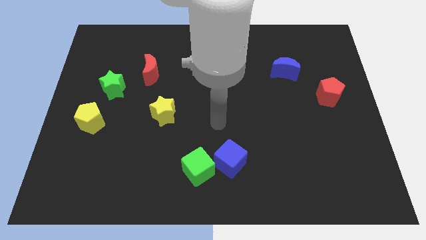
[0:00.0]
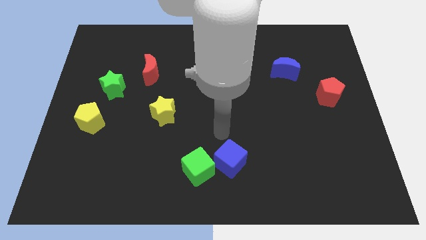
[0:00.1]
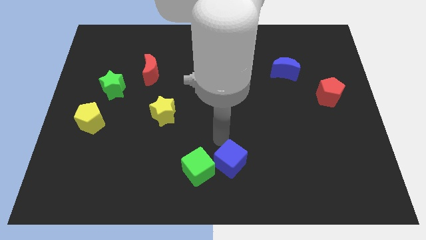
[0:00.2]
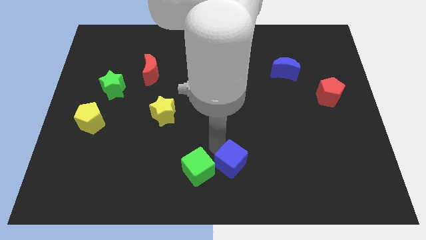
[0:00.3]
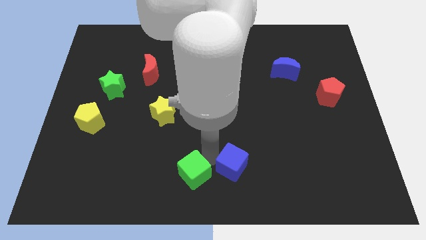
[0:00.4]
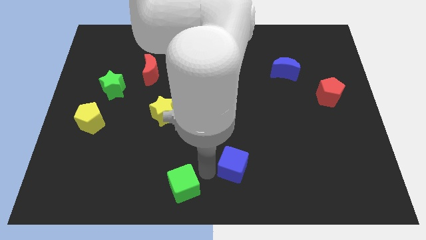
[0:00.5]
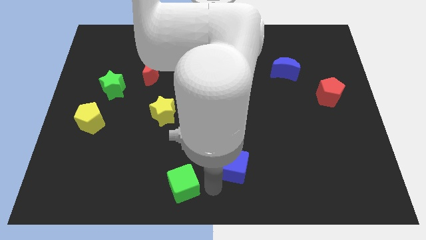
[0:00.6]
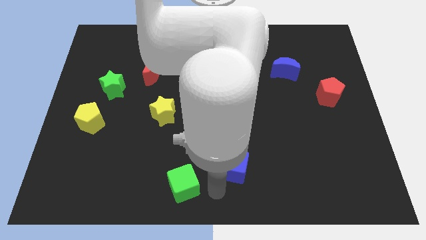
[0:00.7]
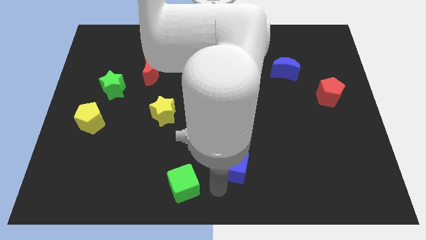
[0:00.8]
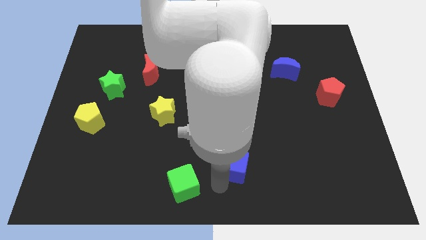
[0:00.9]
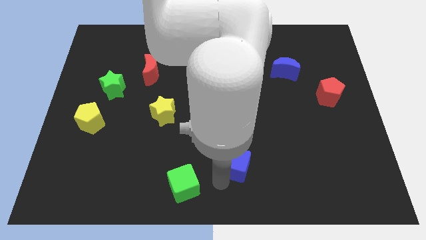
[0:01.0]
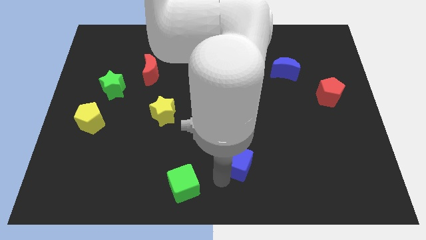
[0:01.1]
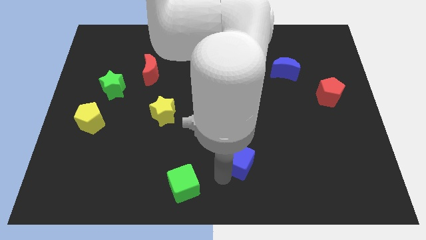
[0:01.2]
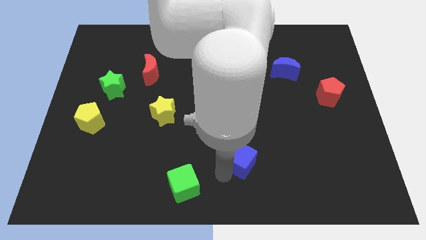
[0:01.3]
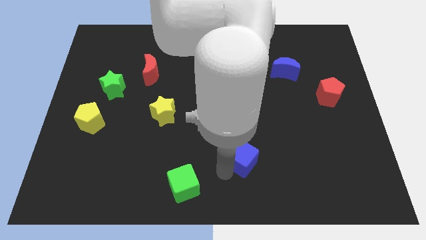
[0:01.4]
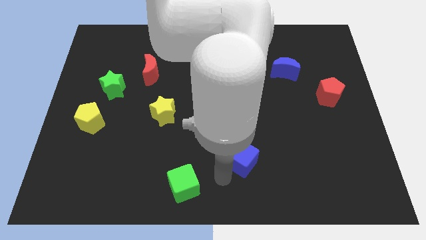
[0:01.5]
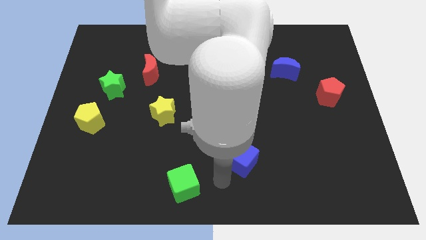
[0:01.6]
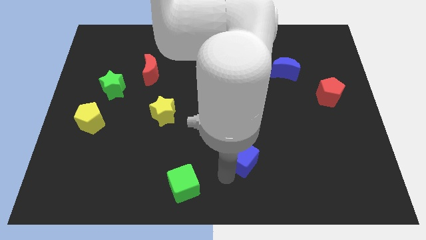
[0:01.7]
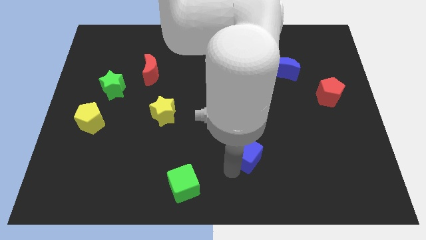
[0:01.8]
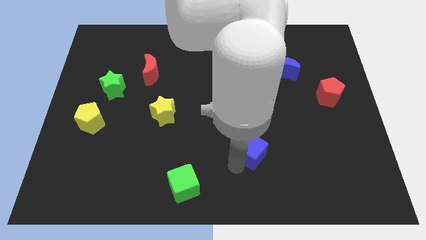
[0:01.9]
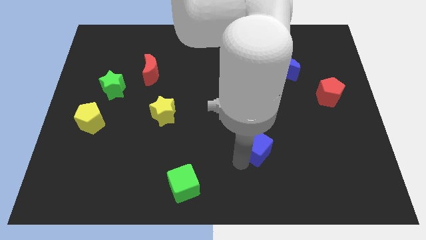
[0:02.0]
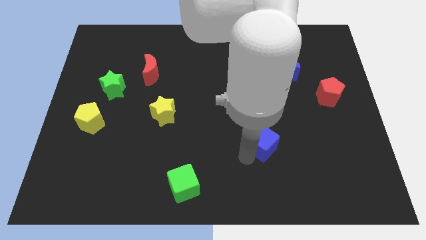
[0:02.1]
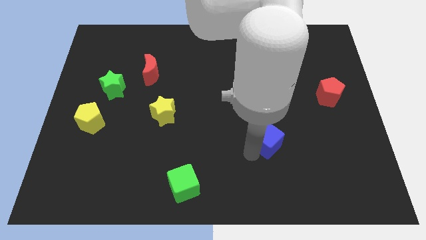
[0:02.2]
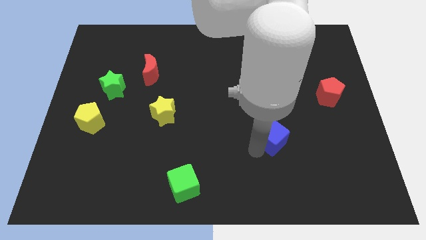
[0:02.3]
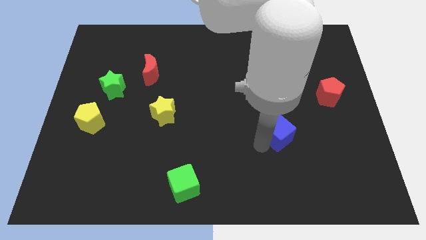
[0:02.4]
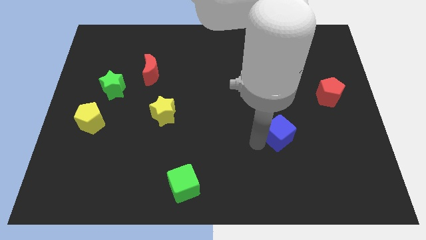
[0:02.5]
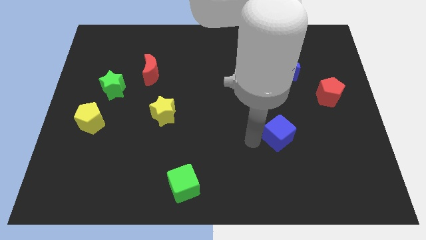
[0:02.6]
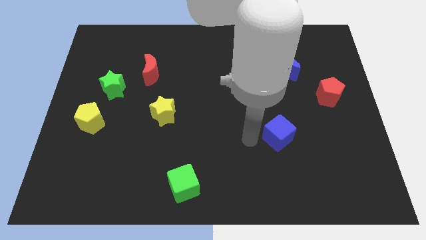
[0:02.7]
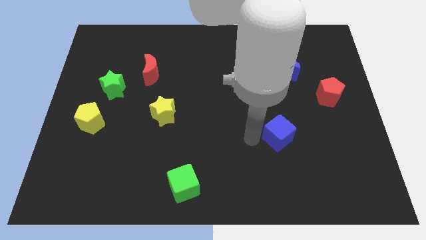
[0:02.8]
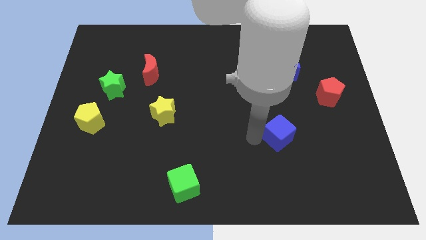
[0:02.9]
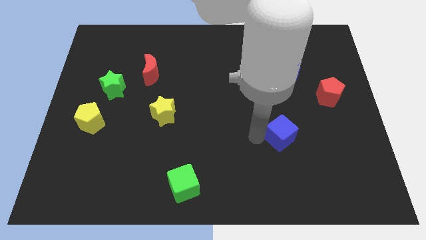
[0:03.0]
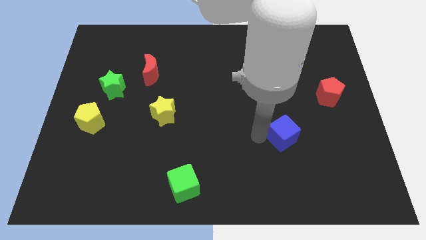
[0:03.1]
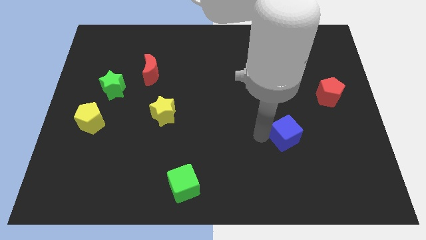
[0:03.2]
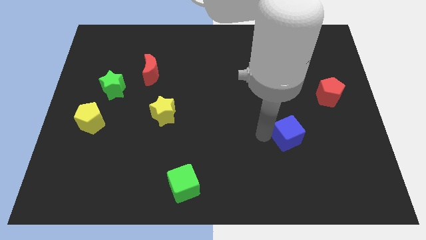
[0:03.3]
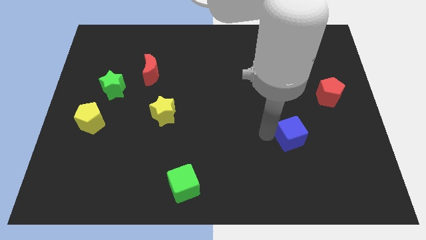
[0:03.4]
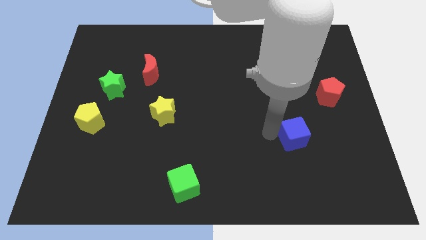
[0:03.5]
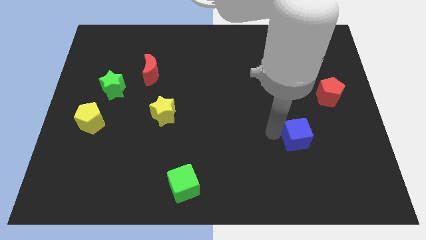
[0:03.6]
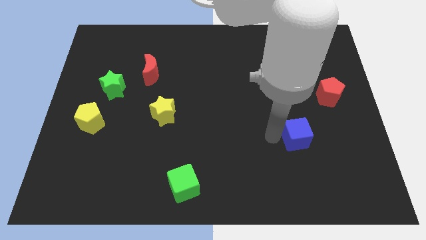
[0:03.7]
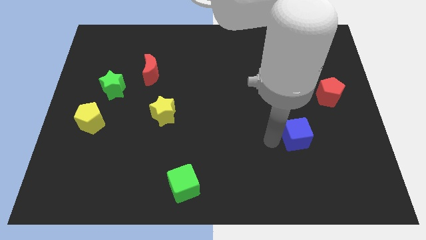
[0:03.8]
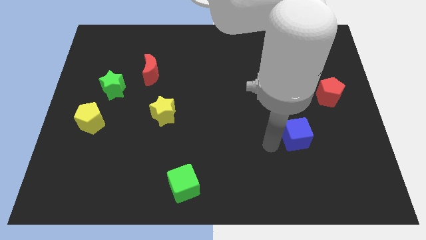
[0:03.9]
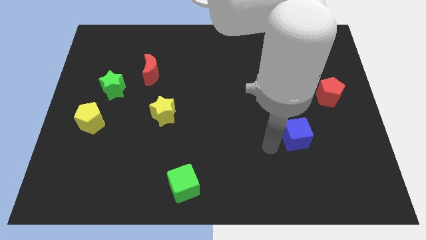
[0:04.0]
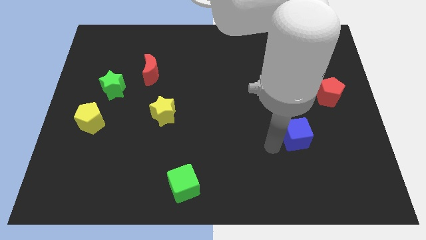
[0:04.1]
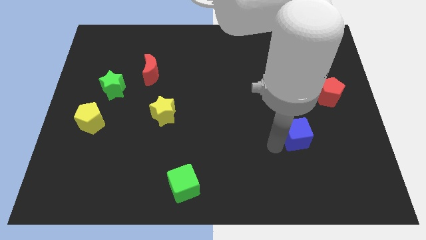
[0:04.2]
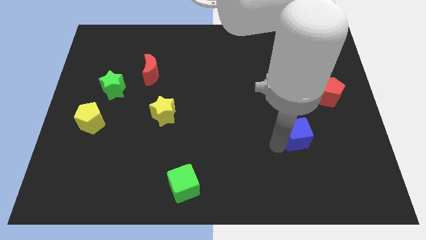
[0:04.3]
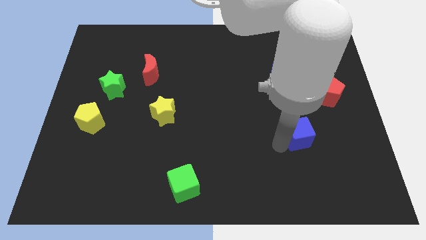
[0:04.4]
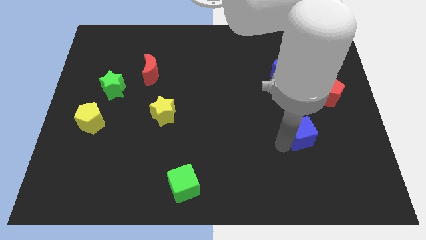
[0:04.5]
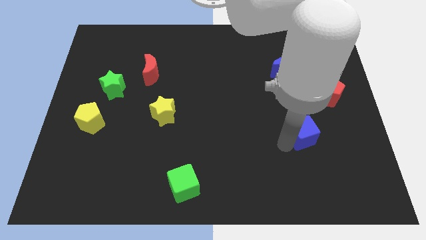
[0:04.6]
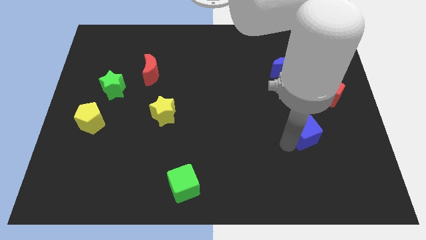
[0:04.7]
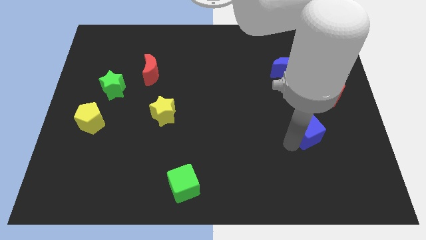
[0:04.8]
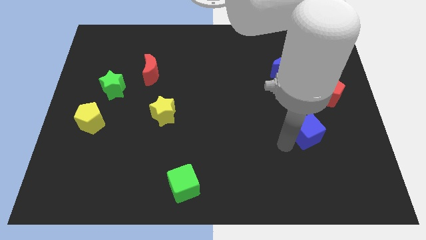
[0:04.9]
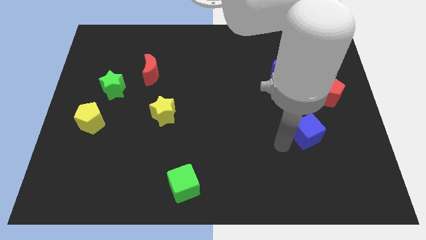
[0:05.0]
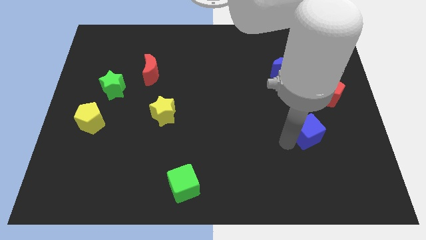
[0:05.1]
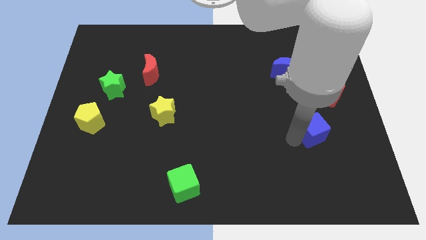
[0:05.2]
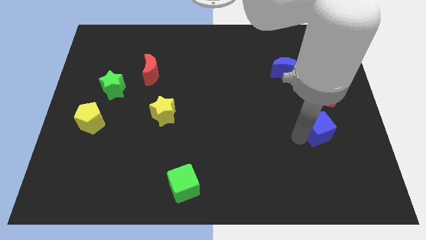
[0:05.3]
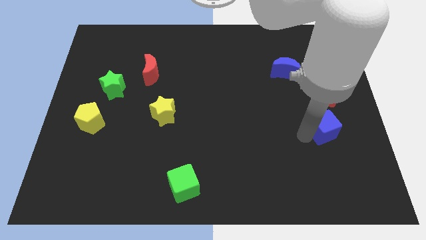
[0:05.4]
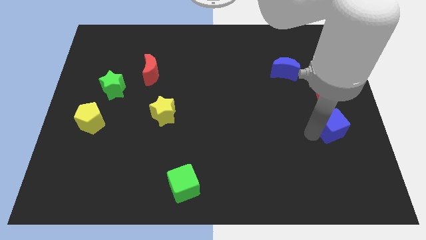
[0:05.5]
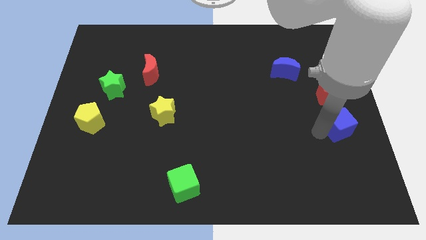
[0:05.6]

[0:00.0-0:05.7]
move the blue cube to the right side
